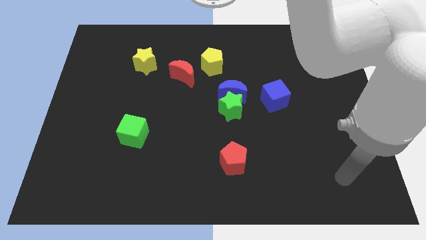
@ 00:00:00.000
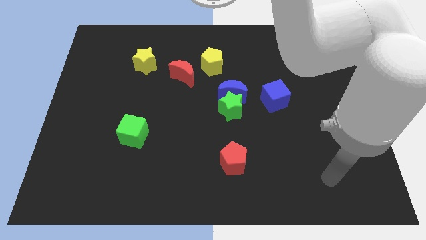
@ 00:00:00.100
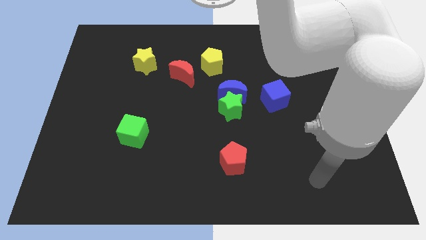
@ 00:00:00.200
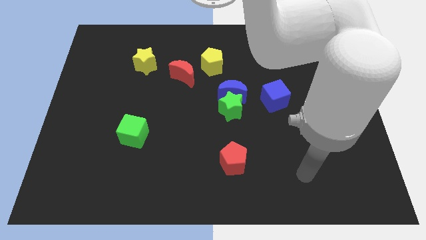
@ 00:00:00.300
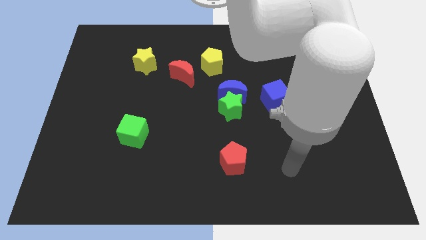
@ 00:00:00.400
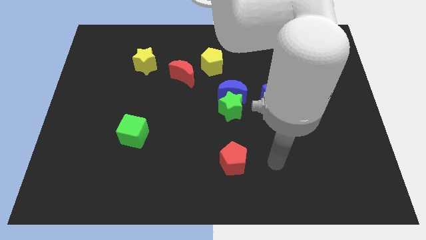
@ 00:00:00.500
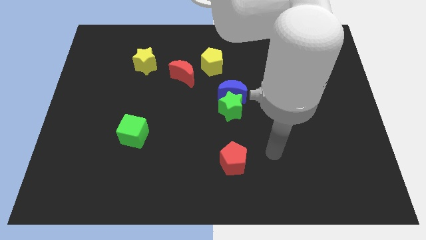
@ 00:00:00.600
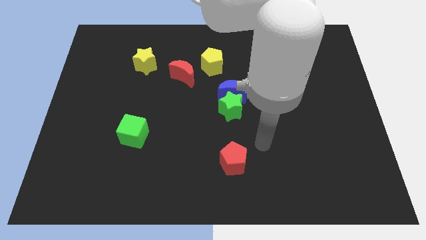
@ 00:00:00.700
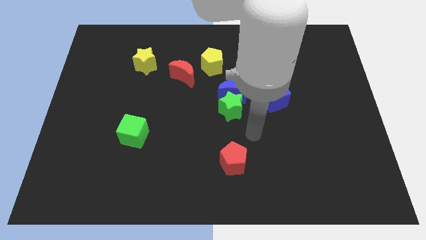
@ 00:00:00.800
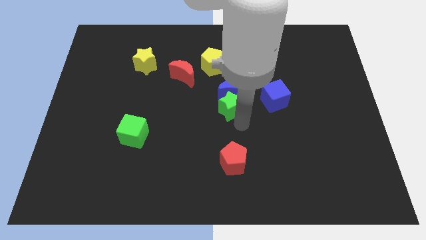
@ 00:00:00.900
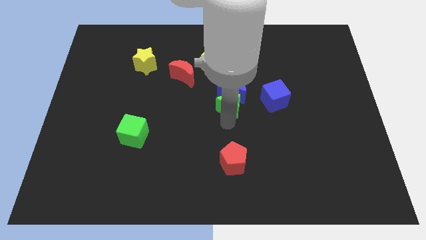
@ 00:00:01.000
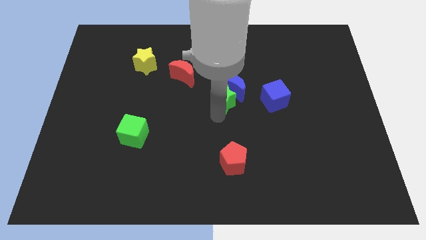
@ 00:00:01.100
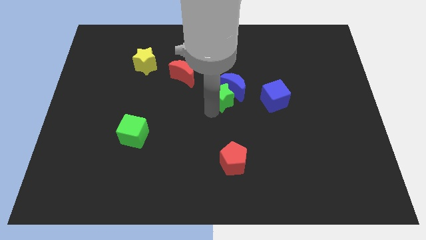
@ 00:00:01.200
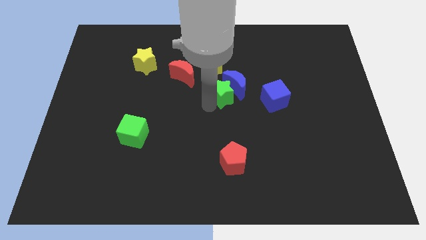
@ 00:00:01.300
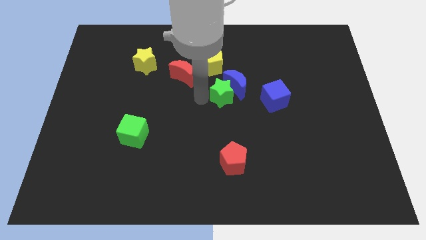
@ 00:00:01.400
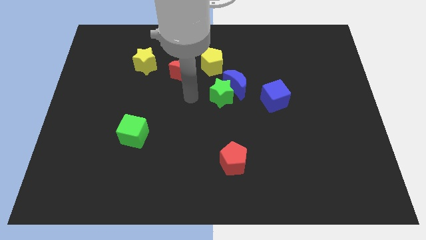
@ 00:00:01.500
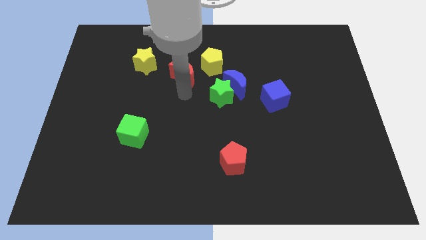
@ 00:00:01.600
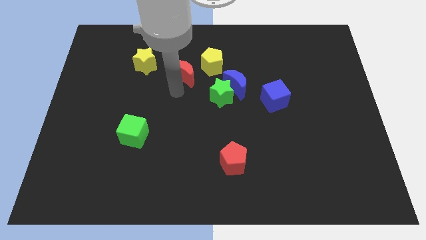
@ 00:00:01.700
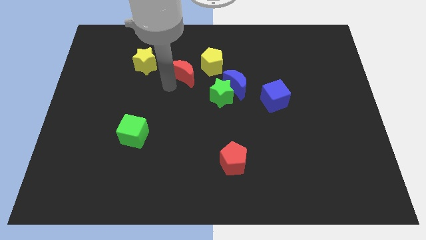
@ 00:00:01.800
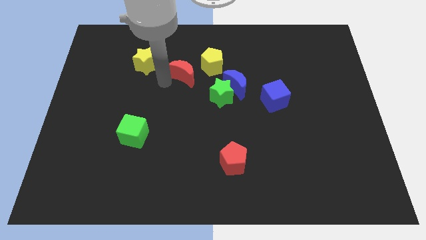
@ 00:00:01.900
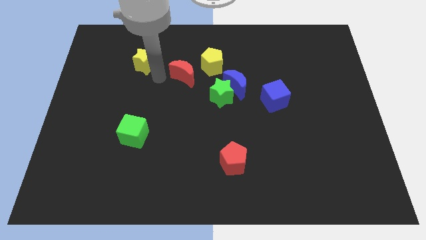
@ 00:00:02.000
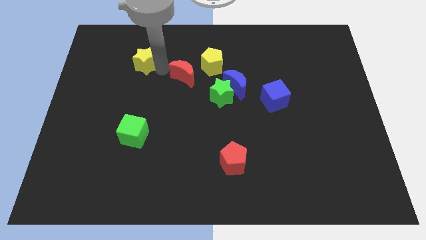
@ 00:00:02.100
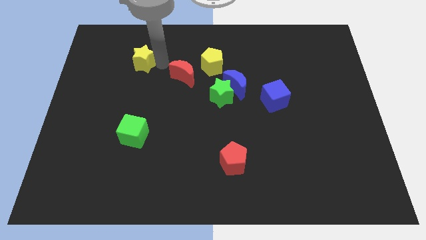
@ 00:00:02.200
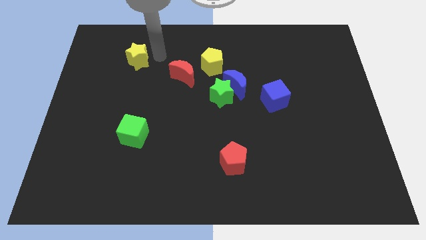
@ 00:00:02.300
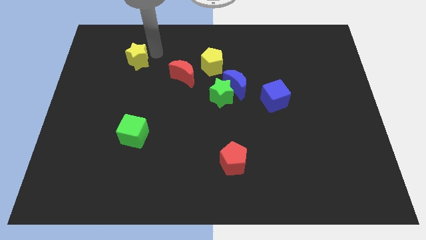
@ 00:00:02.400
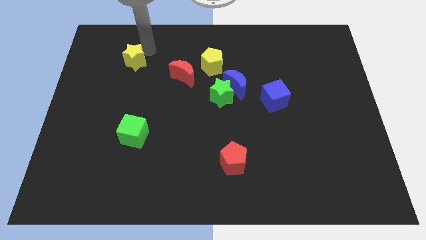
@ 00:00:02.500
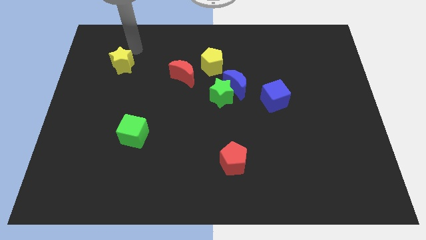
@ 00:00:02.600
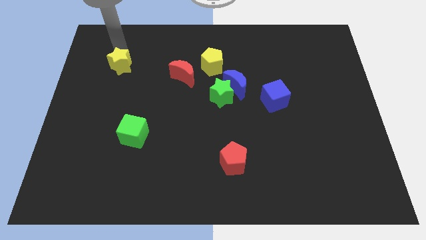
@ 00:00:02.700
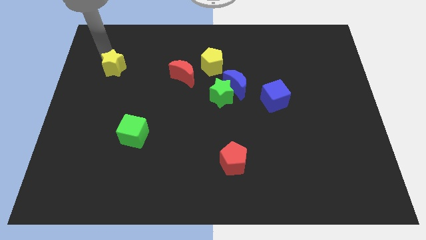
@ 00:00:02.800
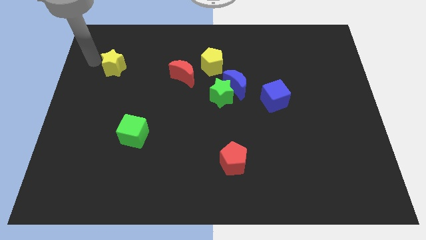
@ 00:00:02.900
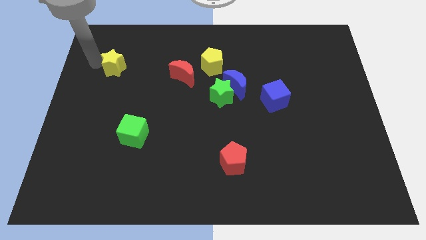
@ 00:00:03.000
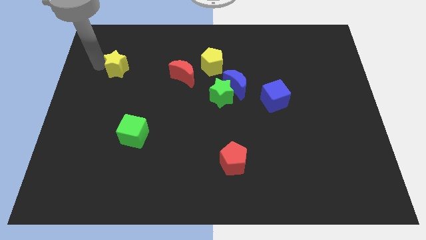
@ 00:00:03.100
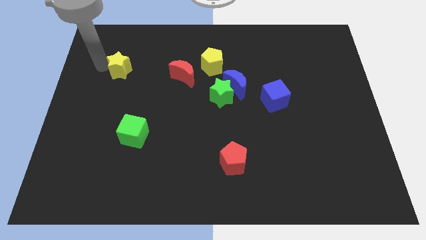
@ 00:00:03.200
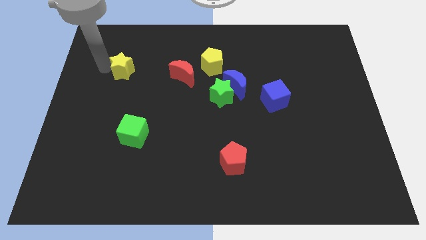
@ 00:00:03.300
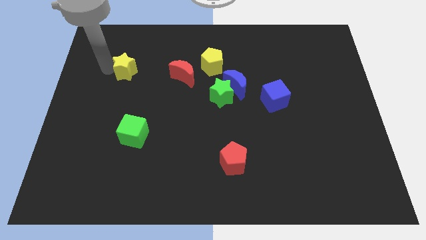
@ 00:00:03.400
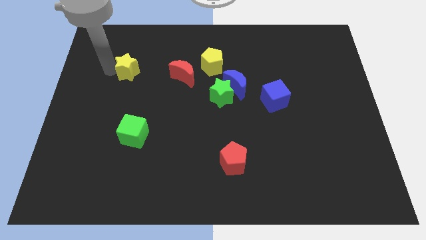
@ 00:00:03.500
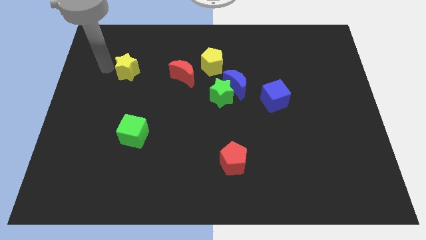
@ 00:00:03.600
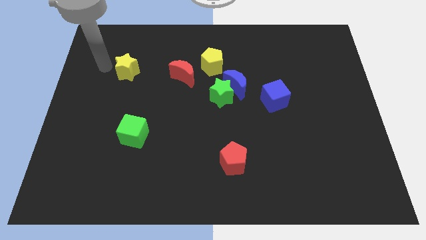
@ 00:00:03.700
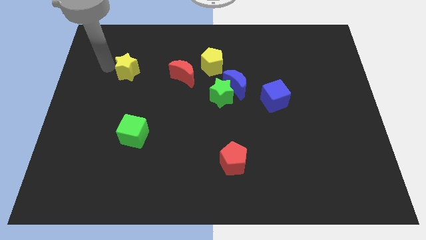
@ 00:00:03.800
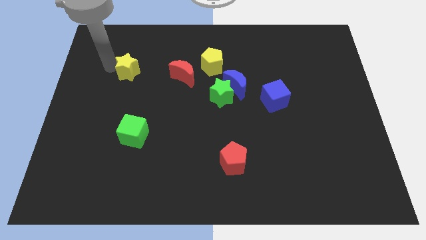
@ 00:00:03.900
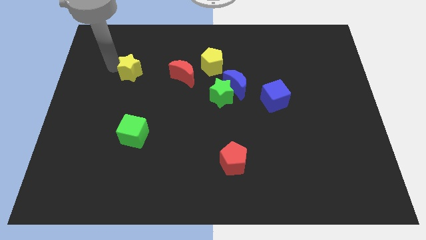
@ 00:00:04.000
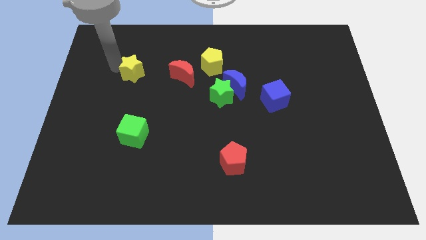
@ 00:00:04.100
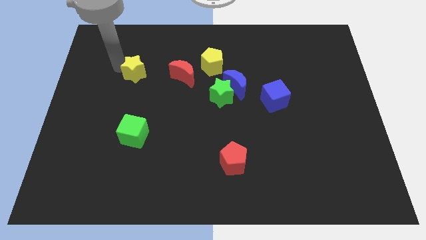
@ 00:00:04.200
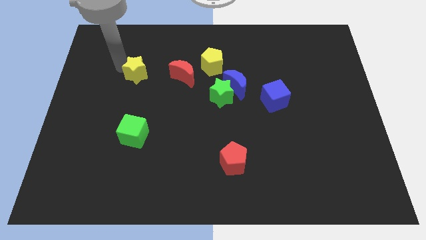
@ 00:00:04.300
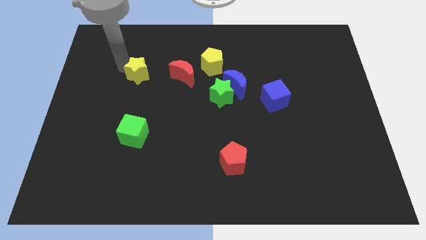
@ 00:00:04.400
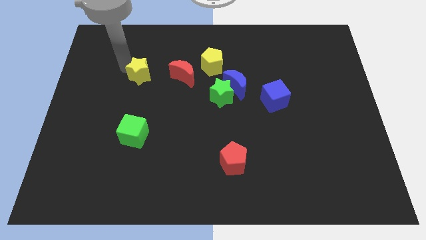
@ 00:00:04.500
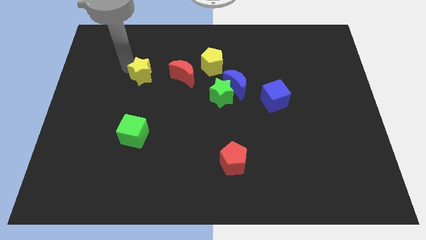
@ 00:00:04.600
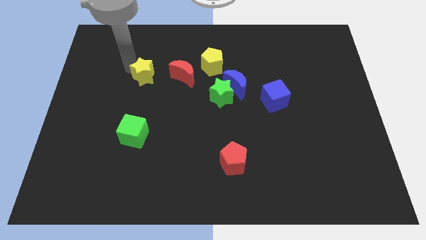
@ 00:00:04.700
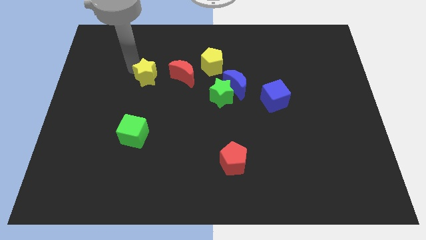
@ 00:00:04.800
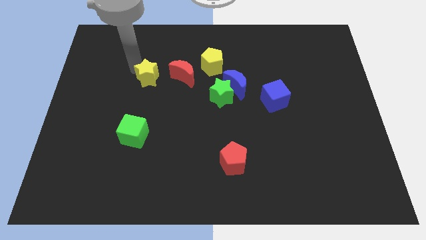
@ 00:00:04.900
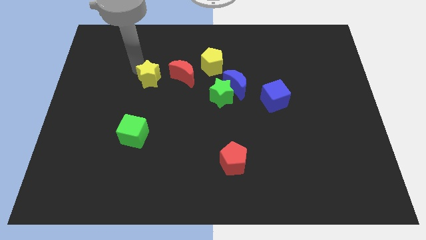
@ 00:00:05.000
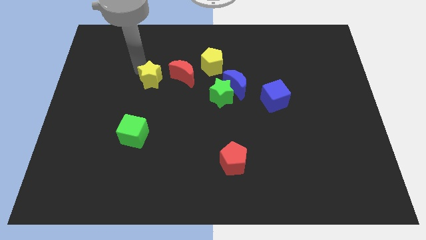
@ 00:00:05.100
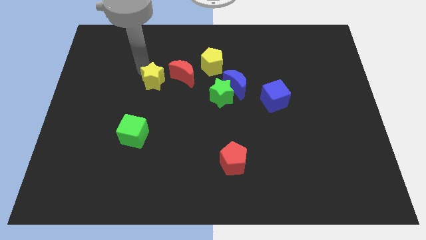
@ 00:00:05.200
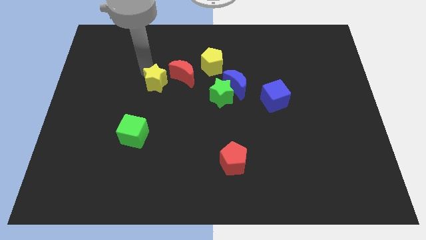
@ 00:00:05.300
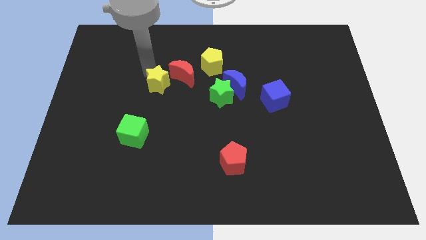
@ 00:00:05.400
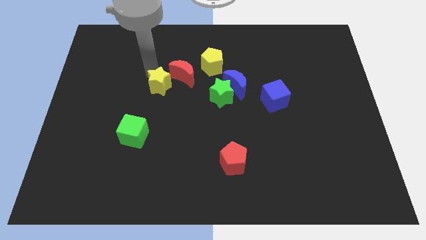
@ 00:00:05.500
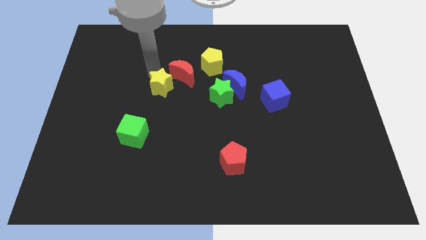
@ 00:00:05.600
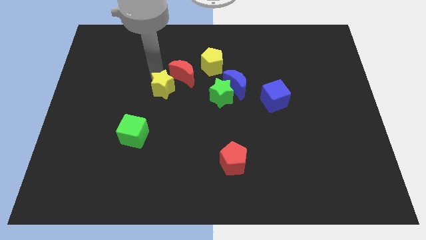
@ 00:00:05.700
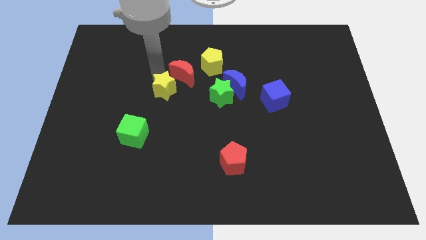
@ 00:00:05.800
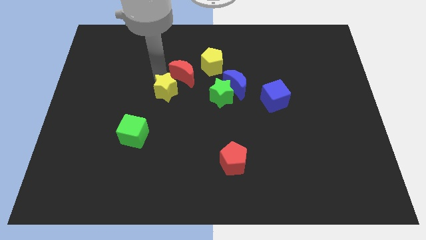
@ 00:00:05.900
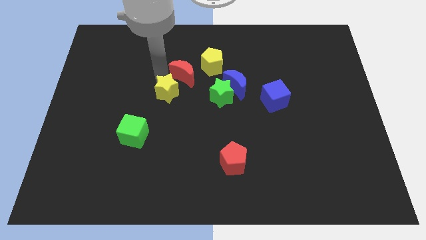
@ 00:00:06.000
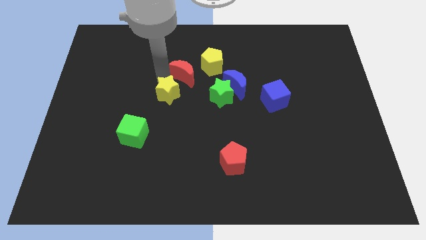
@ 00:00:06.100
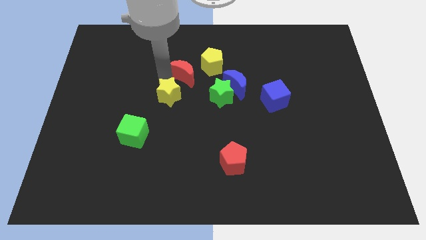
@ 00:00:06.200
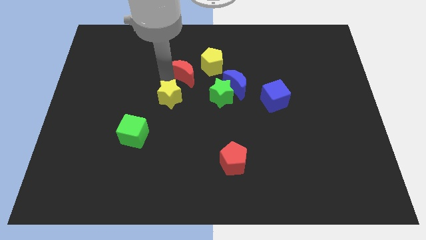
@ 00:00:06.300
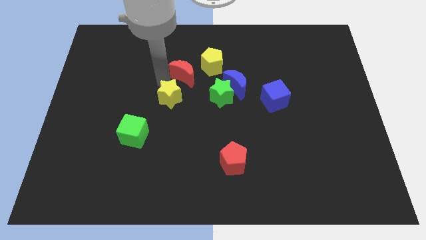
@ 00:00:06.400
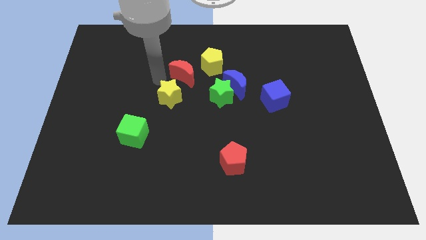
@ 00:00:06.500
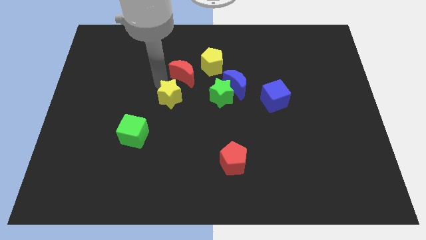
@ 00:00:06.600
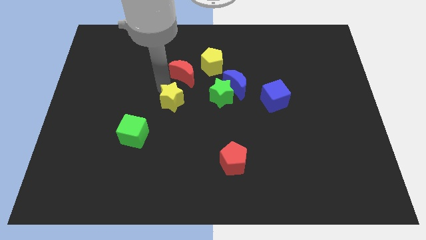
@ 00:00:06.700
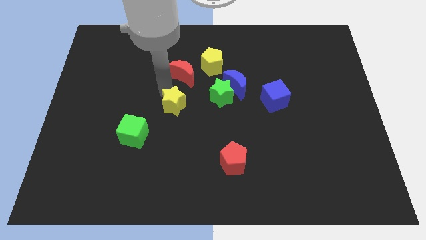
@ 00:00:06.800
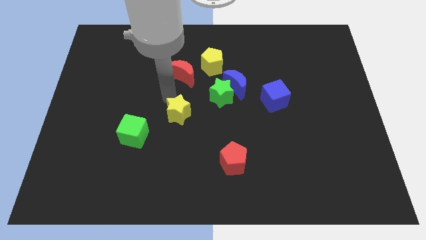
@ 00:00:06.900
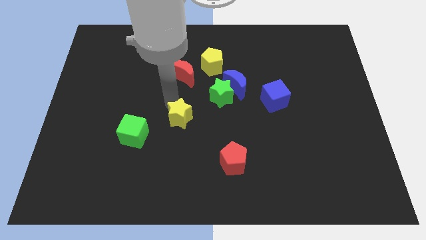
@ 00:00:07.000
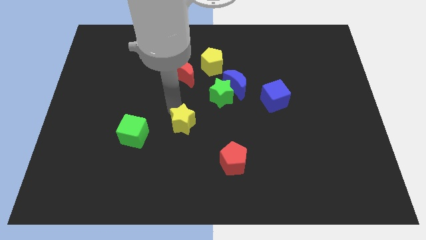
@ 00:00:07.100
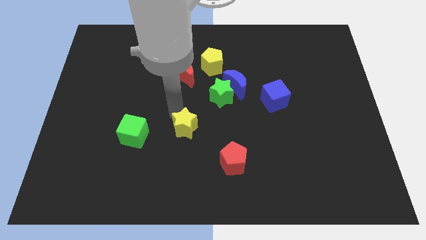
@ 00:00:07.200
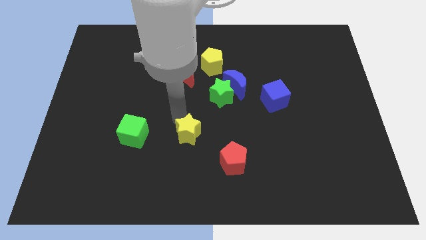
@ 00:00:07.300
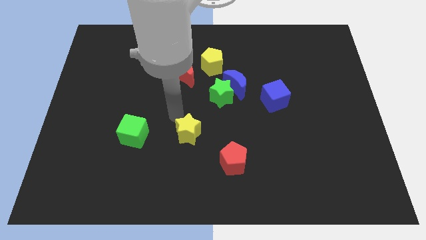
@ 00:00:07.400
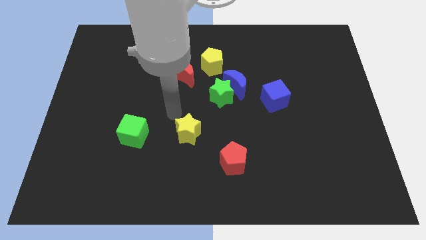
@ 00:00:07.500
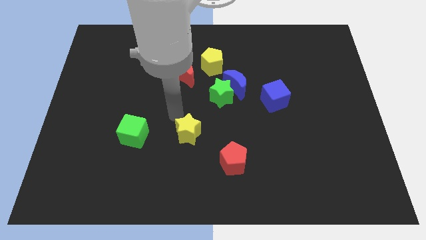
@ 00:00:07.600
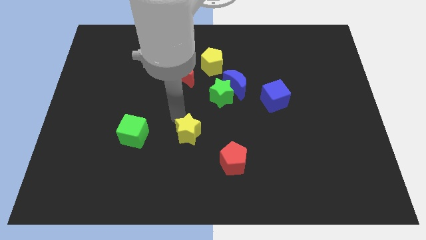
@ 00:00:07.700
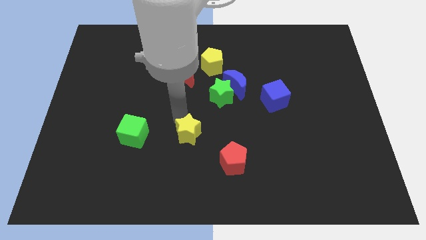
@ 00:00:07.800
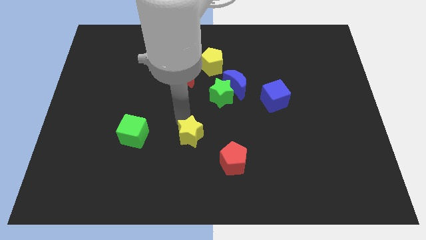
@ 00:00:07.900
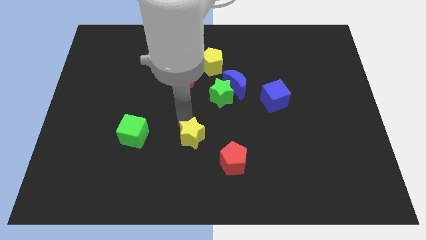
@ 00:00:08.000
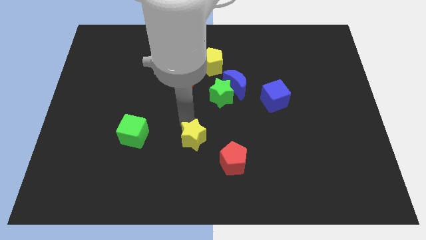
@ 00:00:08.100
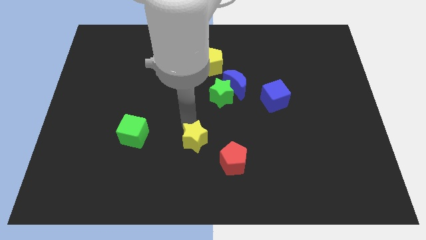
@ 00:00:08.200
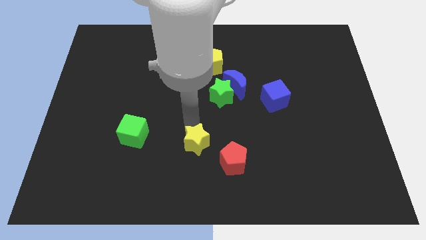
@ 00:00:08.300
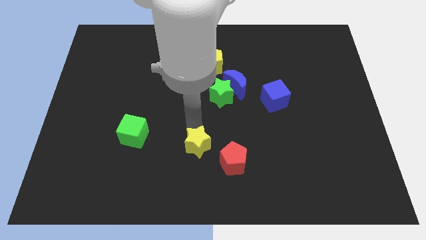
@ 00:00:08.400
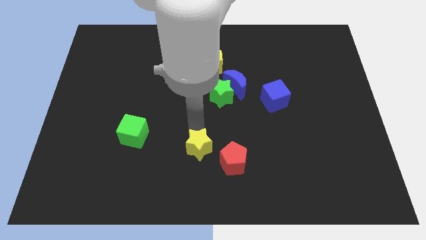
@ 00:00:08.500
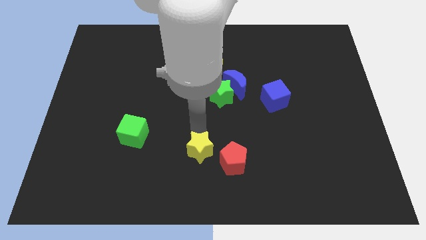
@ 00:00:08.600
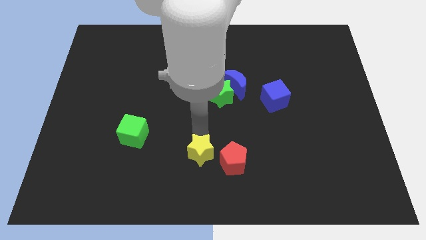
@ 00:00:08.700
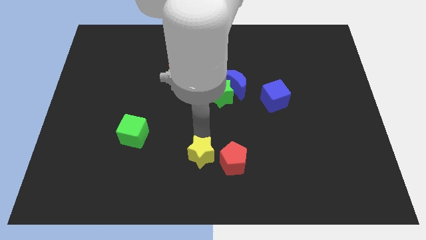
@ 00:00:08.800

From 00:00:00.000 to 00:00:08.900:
move the yellow star to the bottom side
